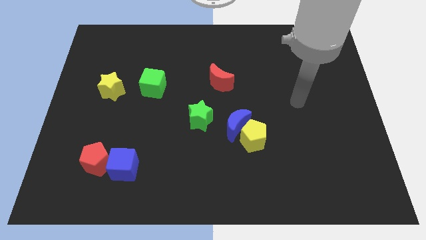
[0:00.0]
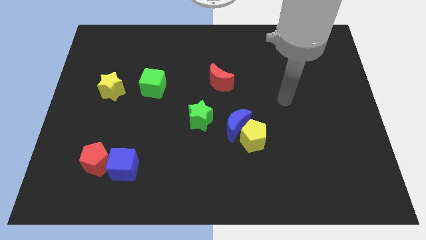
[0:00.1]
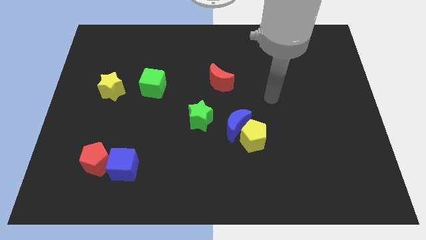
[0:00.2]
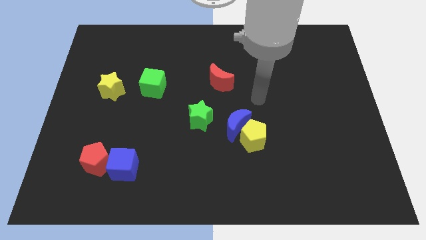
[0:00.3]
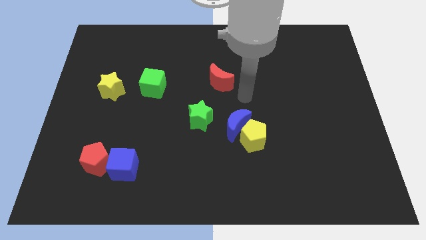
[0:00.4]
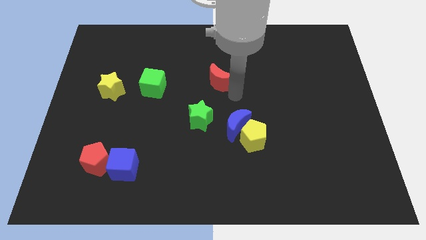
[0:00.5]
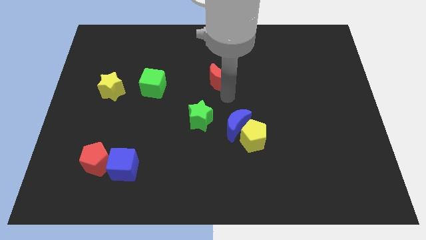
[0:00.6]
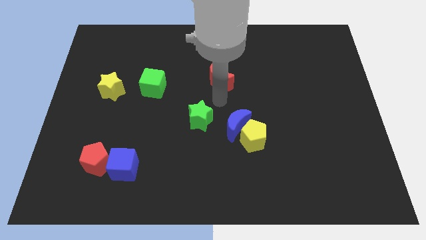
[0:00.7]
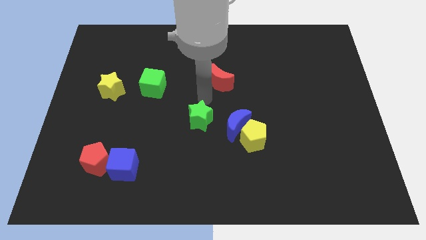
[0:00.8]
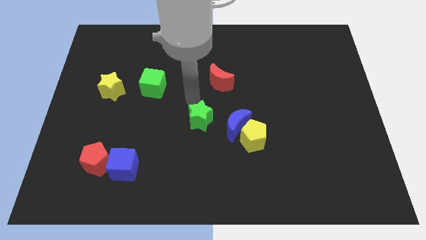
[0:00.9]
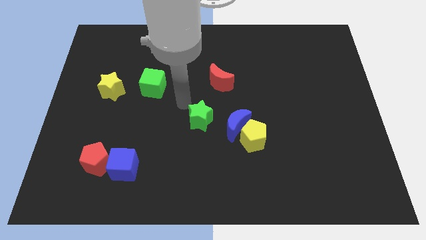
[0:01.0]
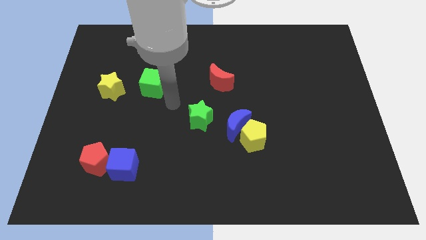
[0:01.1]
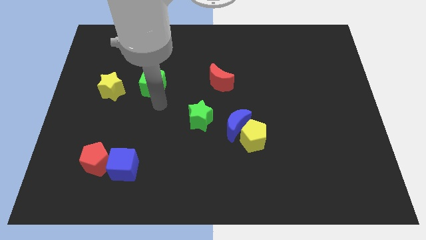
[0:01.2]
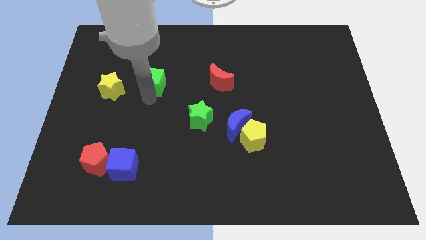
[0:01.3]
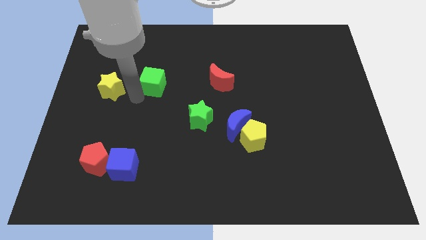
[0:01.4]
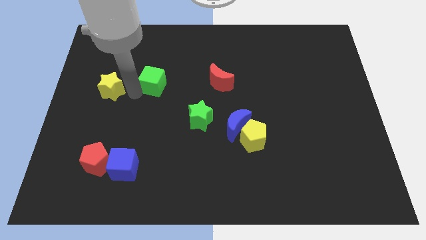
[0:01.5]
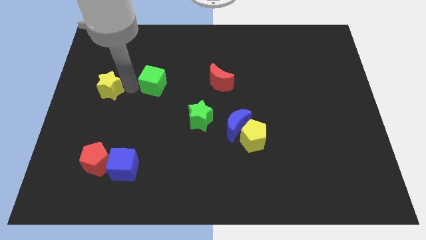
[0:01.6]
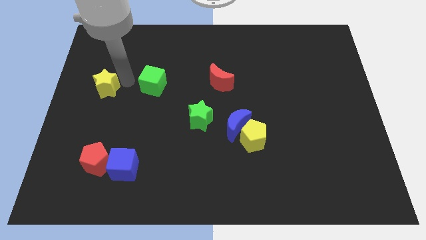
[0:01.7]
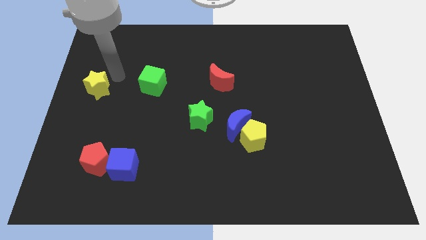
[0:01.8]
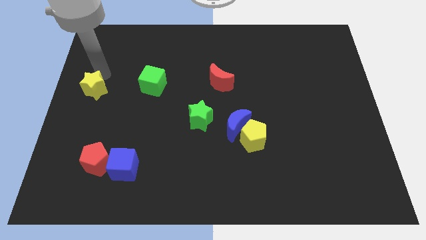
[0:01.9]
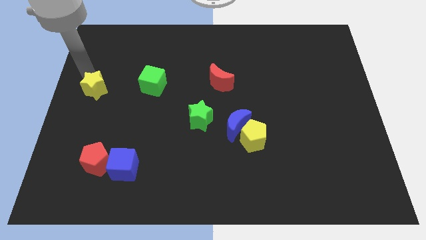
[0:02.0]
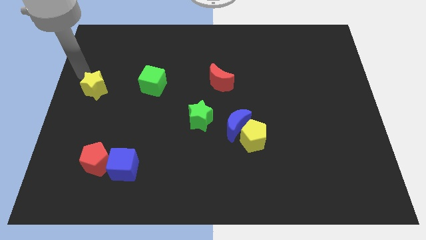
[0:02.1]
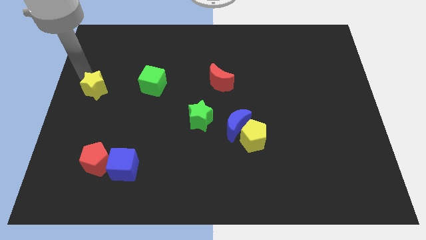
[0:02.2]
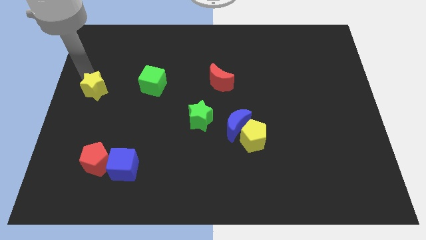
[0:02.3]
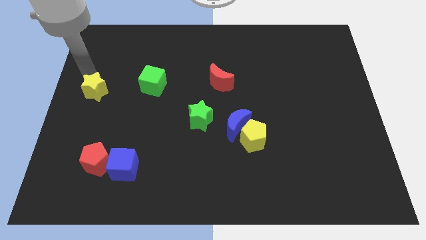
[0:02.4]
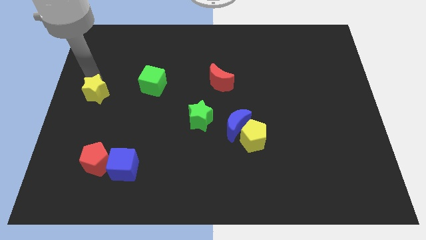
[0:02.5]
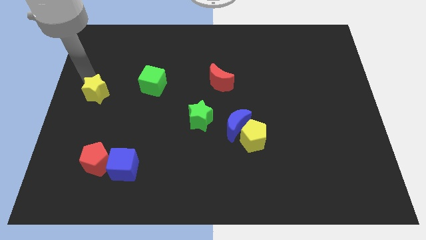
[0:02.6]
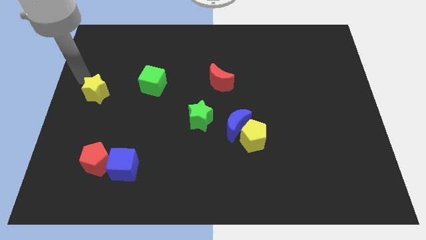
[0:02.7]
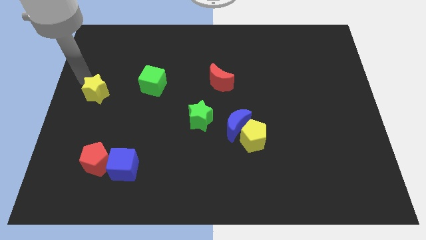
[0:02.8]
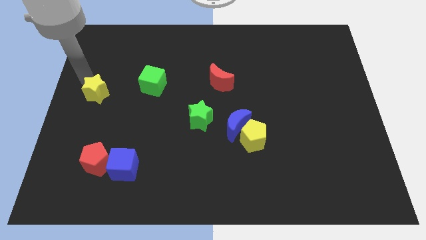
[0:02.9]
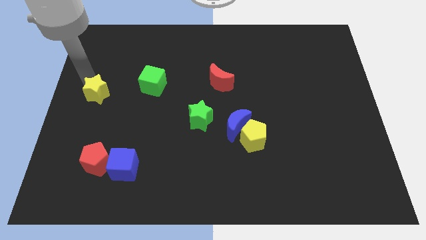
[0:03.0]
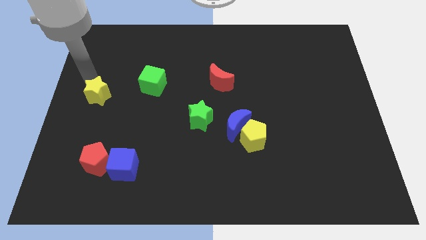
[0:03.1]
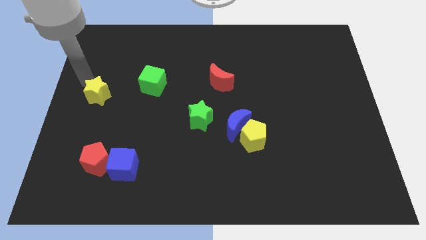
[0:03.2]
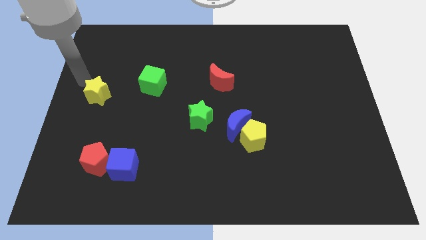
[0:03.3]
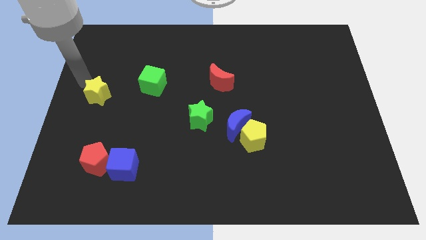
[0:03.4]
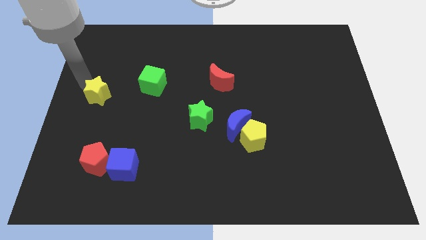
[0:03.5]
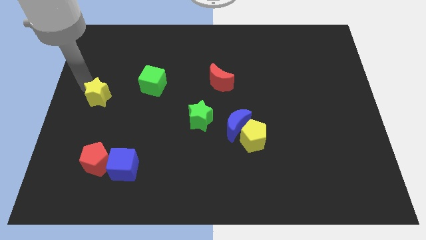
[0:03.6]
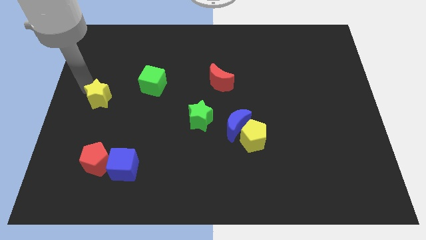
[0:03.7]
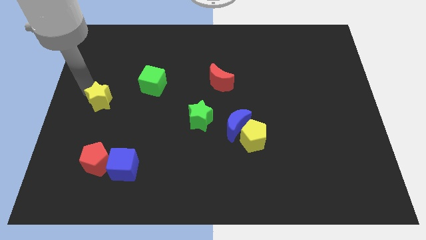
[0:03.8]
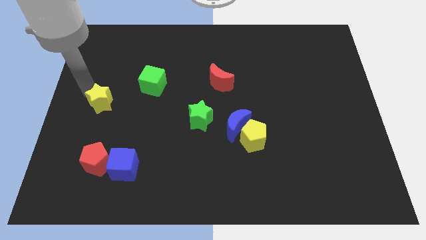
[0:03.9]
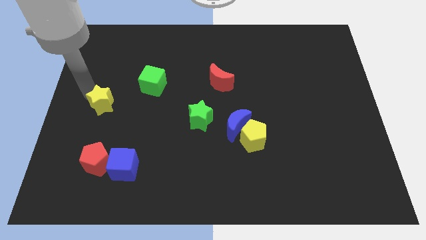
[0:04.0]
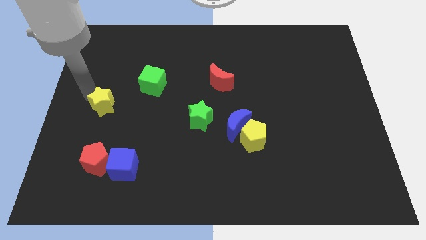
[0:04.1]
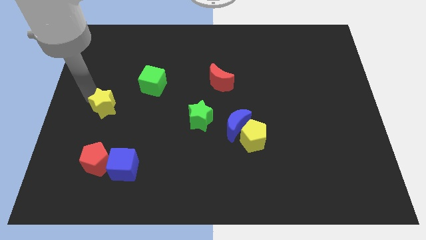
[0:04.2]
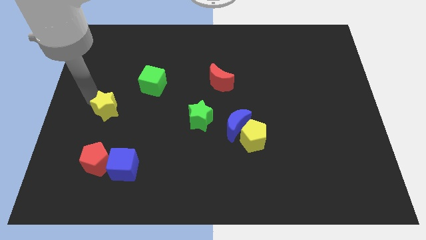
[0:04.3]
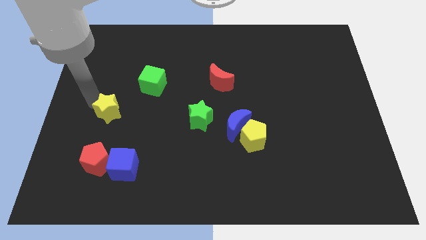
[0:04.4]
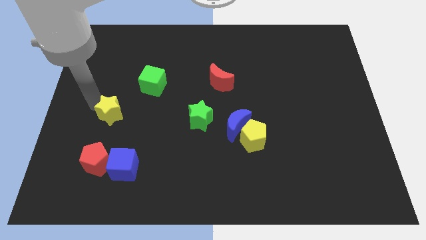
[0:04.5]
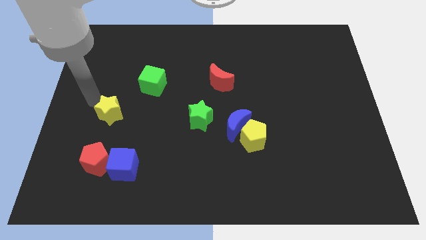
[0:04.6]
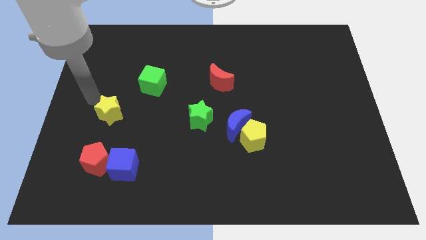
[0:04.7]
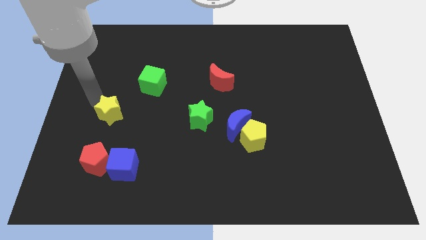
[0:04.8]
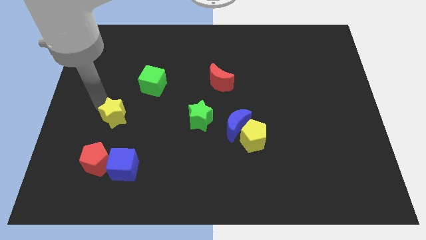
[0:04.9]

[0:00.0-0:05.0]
put the yellow star above the blue cube

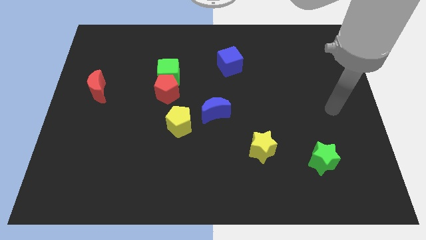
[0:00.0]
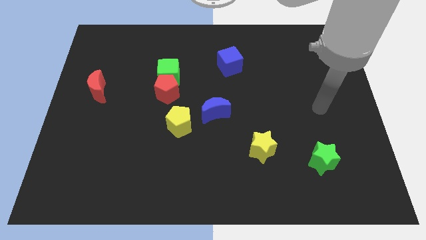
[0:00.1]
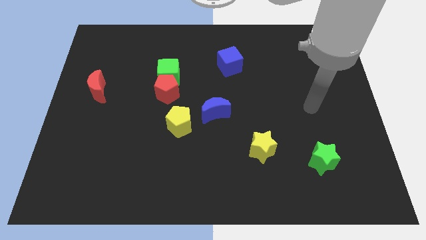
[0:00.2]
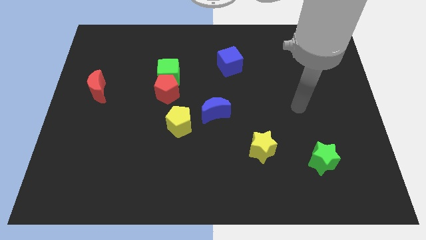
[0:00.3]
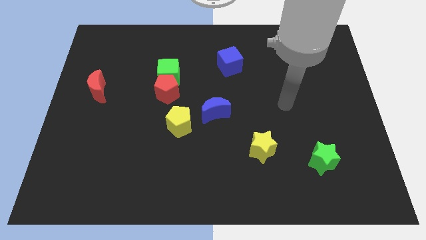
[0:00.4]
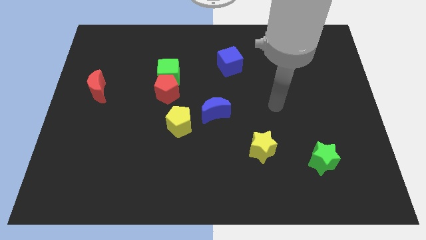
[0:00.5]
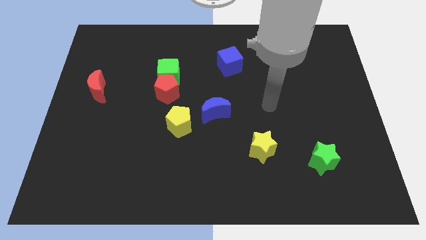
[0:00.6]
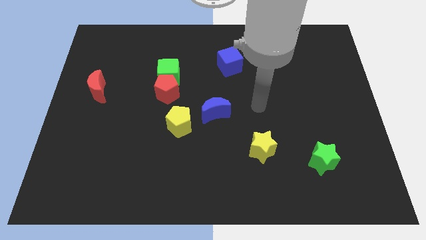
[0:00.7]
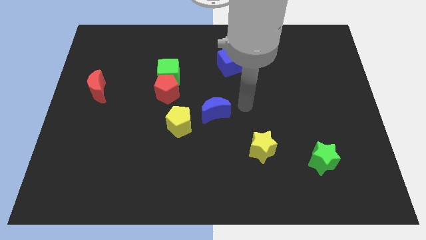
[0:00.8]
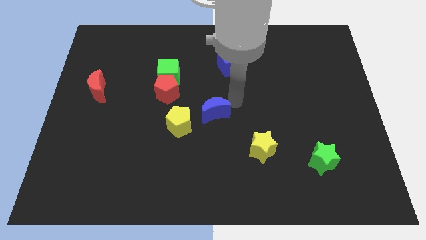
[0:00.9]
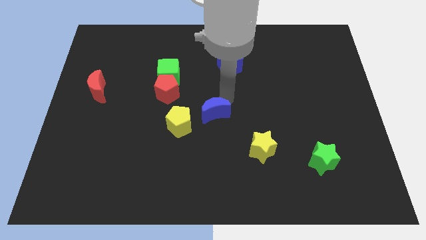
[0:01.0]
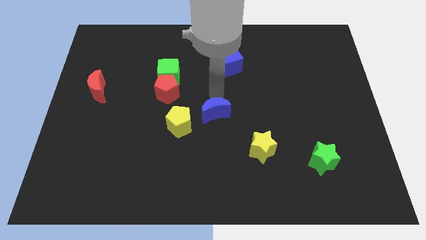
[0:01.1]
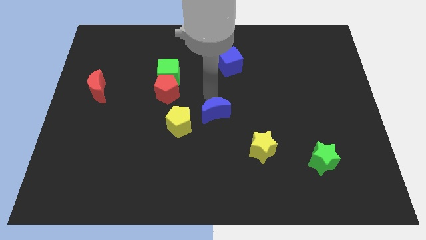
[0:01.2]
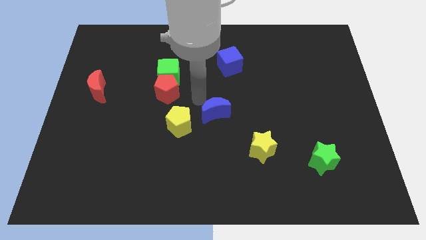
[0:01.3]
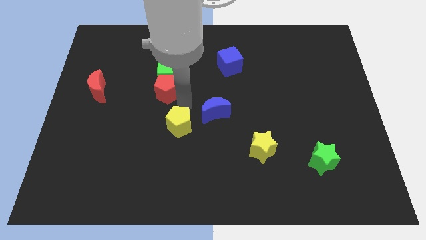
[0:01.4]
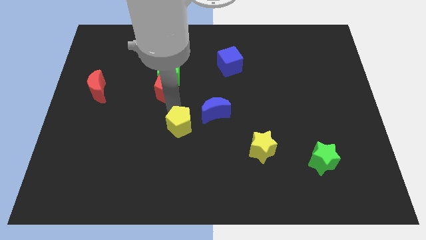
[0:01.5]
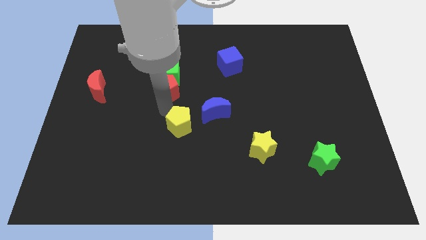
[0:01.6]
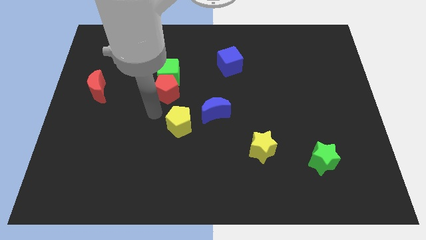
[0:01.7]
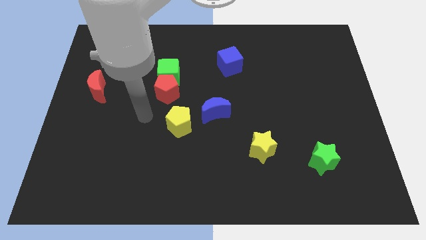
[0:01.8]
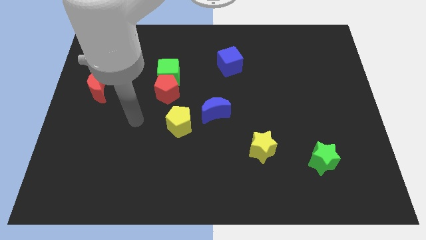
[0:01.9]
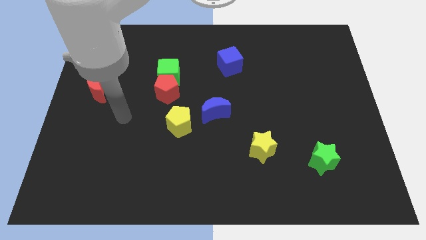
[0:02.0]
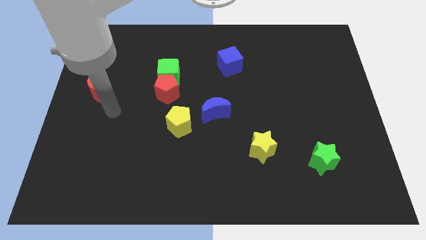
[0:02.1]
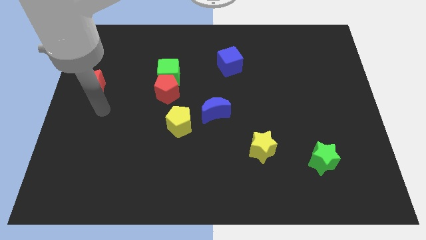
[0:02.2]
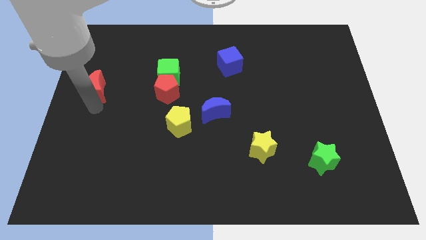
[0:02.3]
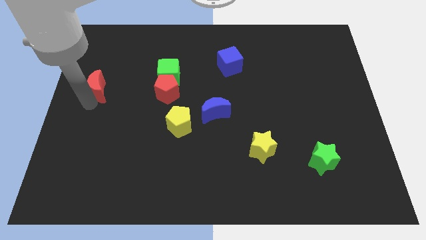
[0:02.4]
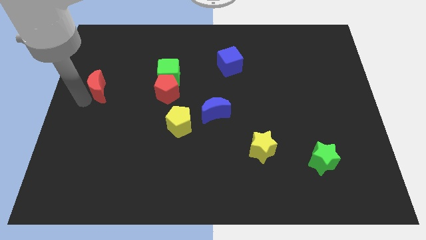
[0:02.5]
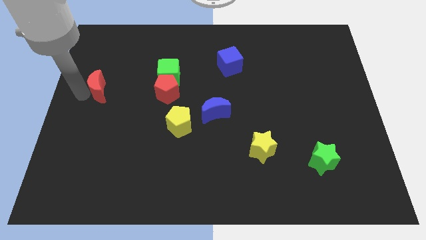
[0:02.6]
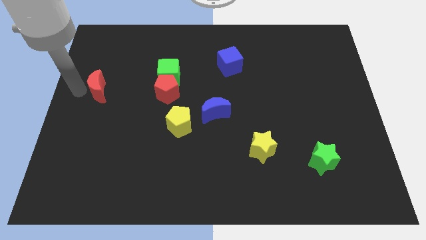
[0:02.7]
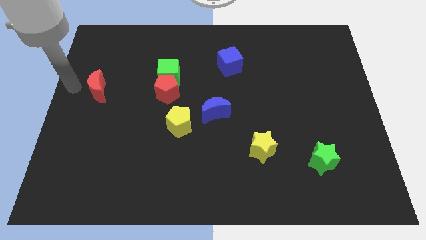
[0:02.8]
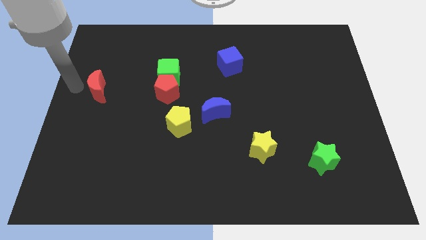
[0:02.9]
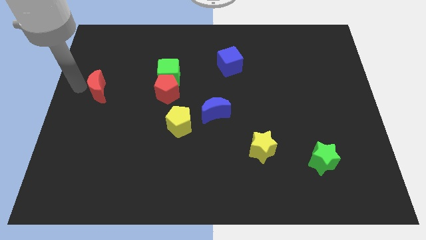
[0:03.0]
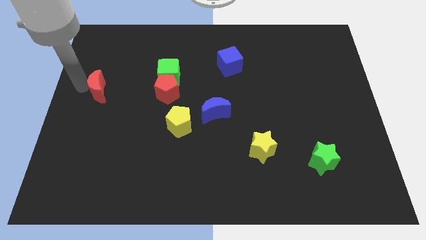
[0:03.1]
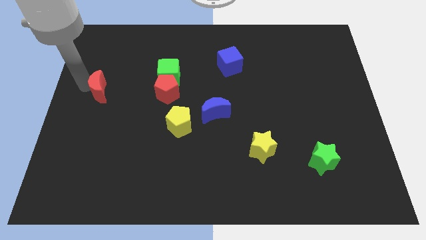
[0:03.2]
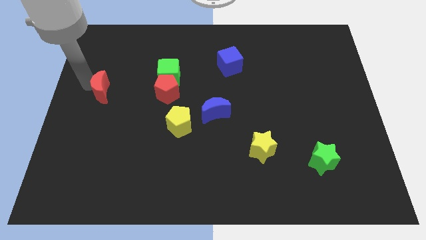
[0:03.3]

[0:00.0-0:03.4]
put the red moon just left of the red pentagon
